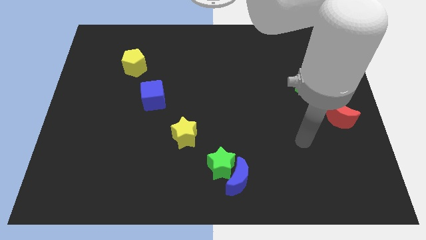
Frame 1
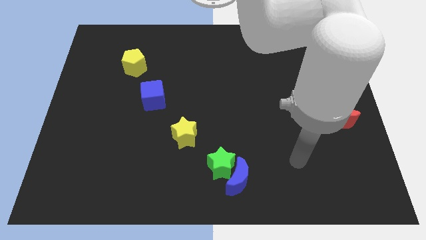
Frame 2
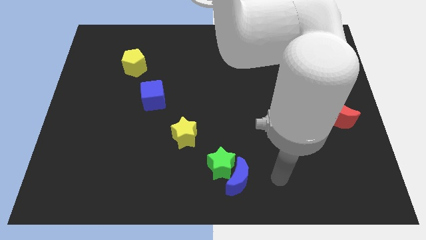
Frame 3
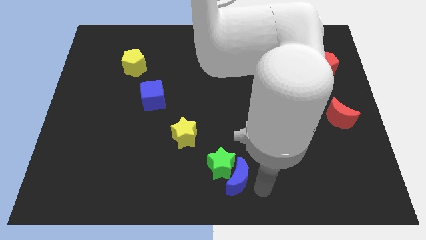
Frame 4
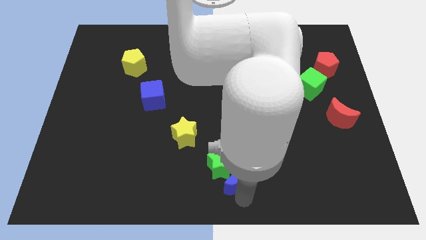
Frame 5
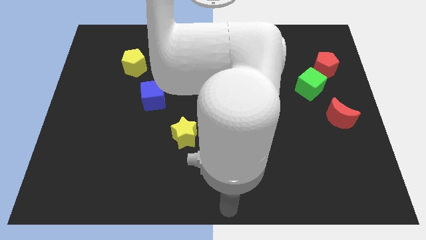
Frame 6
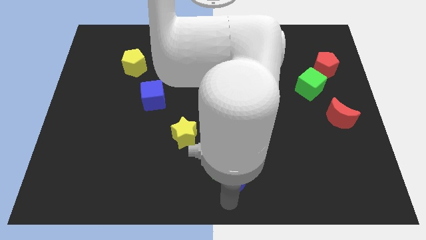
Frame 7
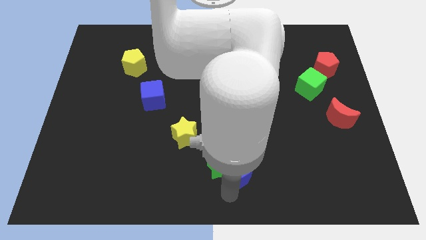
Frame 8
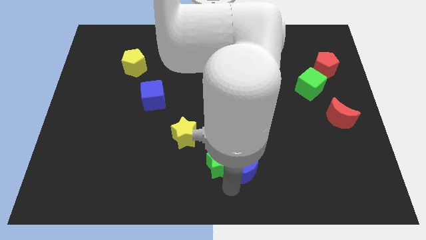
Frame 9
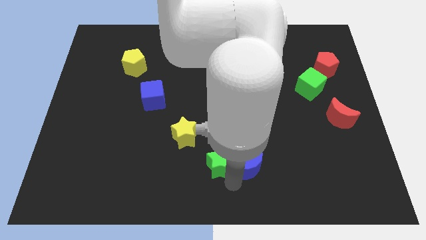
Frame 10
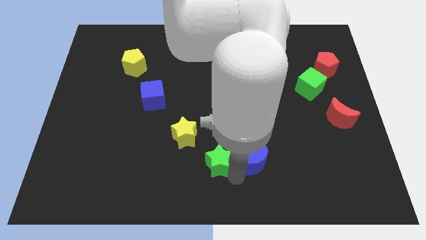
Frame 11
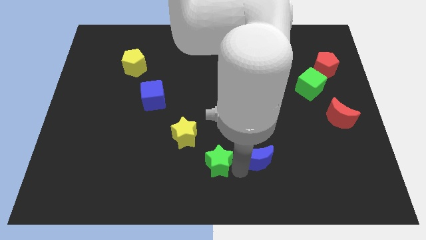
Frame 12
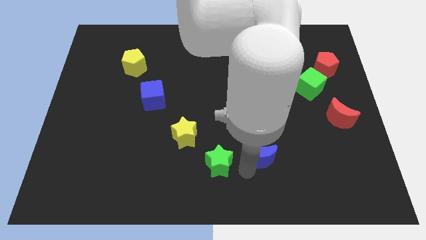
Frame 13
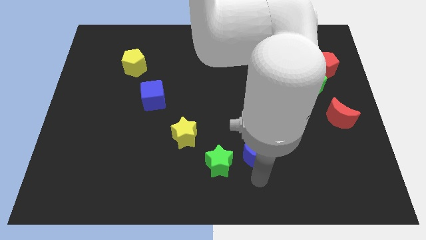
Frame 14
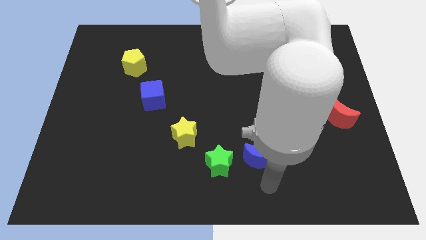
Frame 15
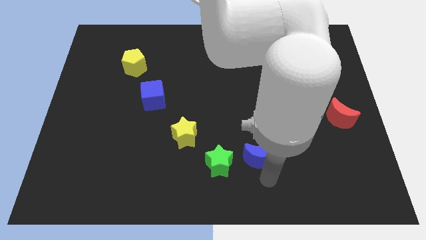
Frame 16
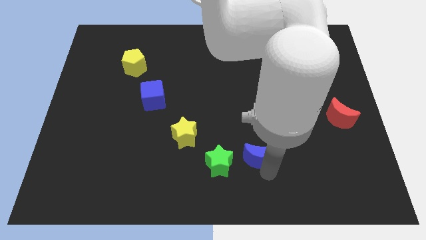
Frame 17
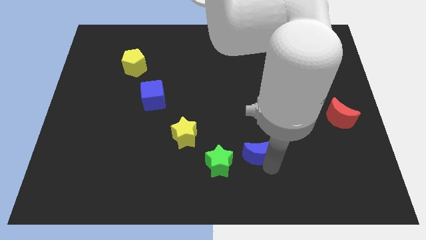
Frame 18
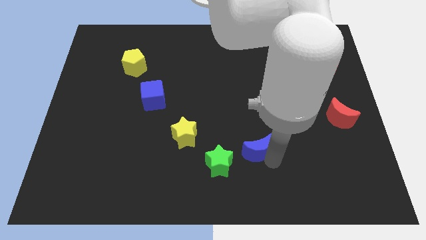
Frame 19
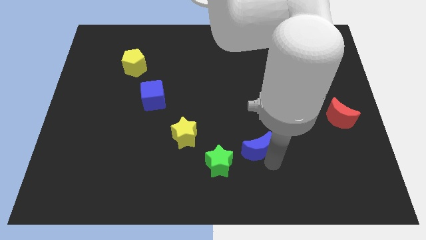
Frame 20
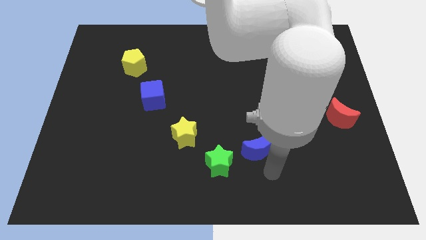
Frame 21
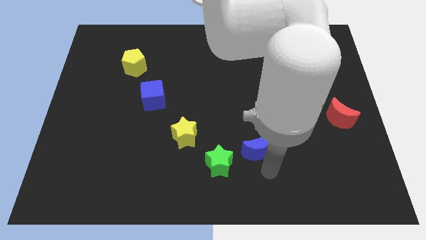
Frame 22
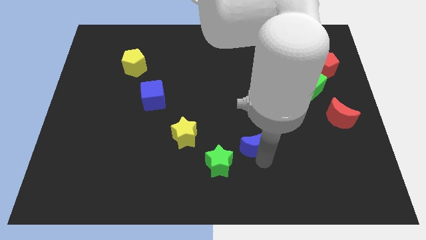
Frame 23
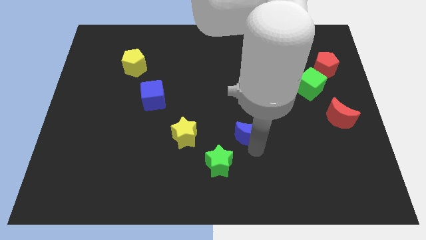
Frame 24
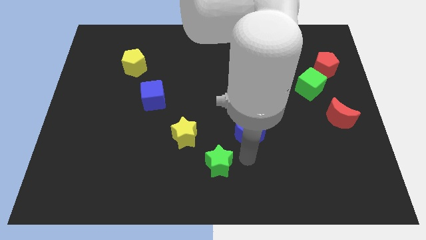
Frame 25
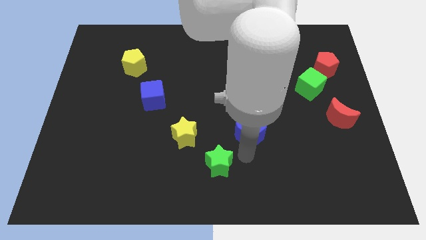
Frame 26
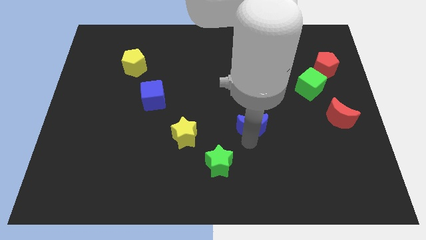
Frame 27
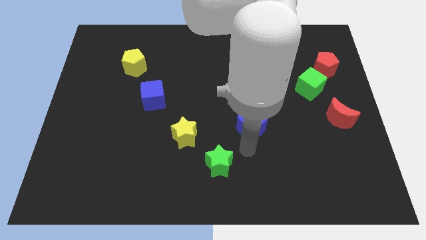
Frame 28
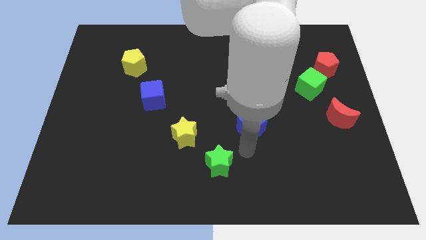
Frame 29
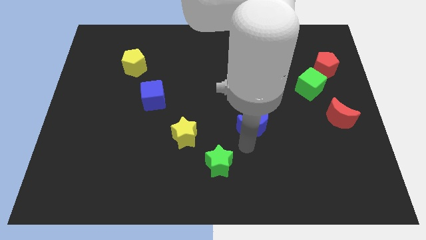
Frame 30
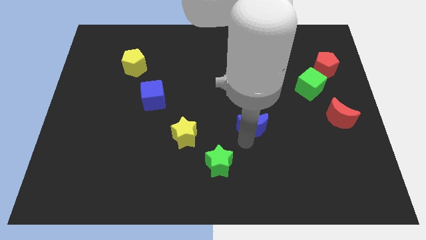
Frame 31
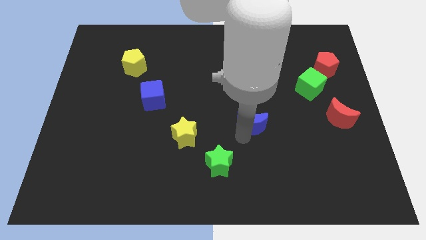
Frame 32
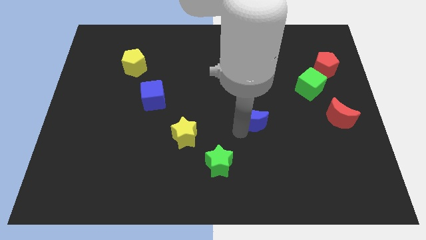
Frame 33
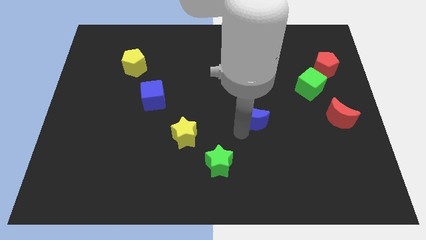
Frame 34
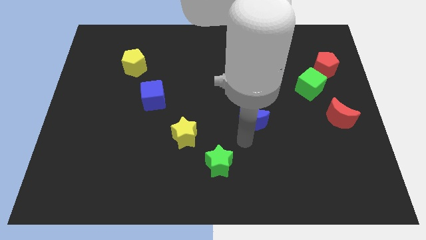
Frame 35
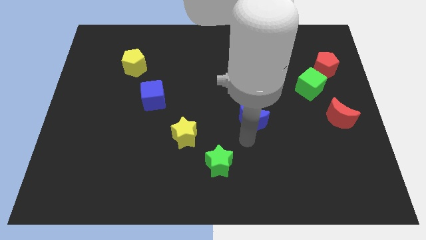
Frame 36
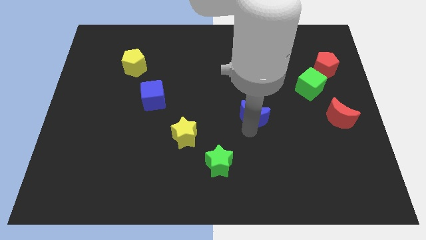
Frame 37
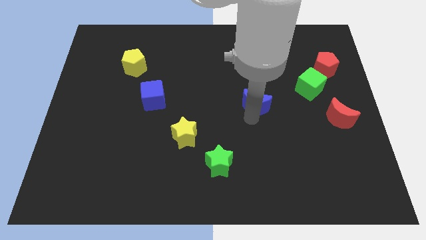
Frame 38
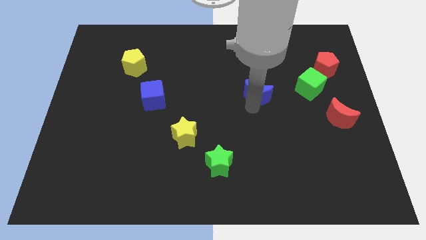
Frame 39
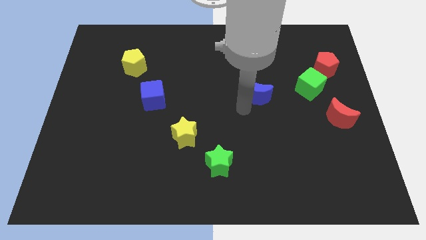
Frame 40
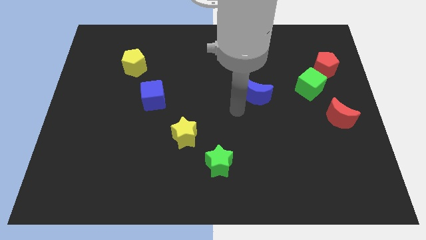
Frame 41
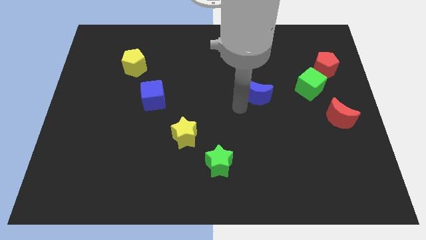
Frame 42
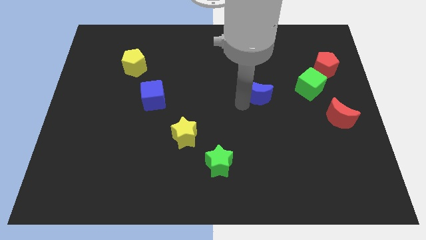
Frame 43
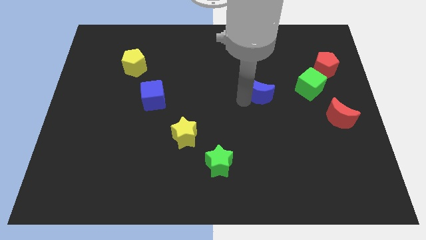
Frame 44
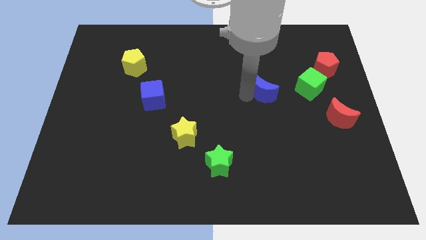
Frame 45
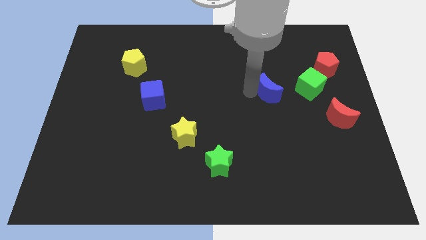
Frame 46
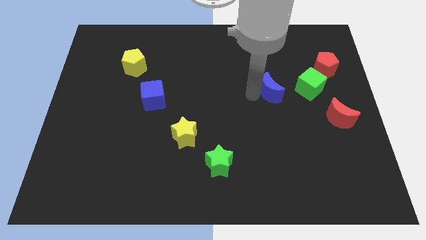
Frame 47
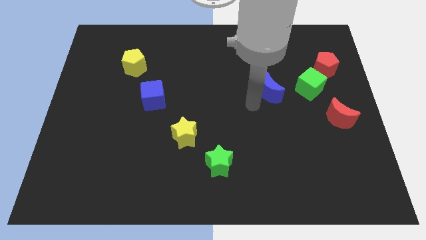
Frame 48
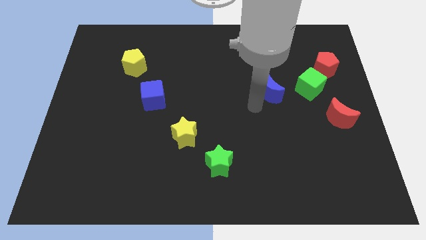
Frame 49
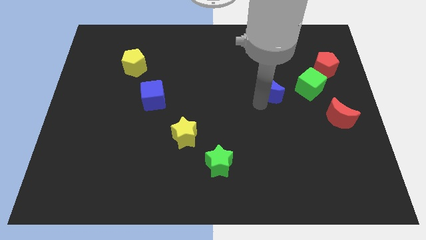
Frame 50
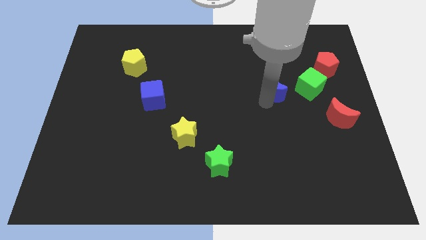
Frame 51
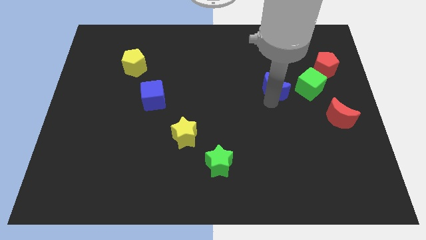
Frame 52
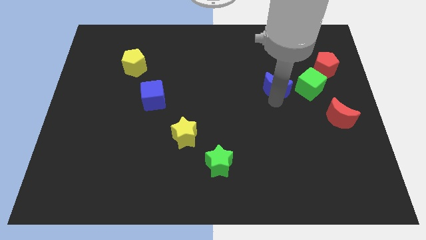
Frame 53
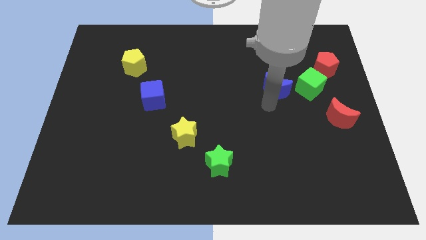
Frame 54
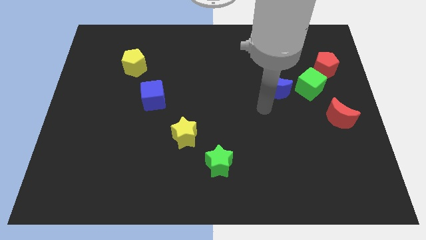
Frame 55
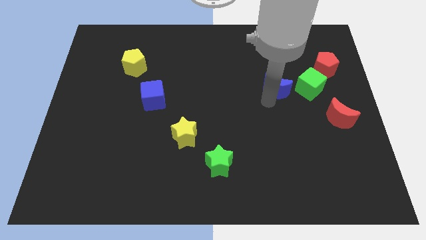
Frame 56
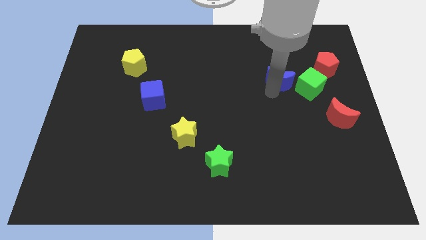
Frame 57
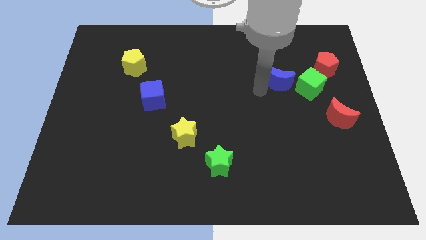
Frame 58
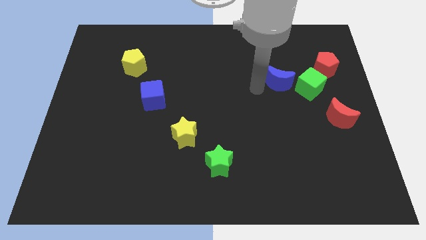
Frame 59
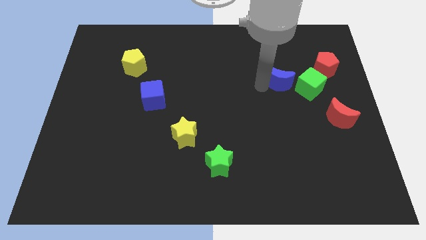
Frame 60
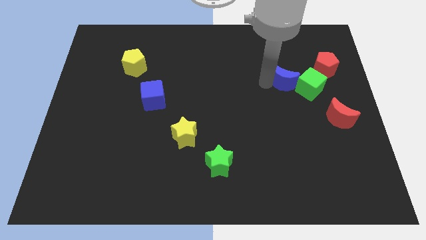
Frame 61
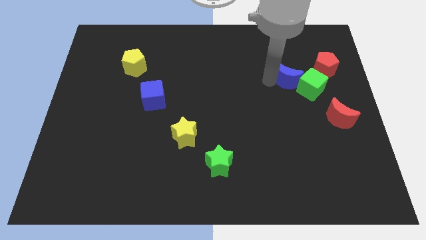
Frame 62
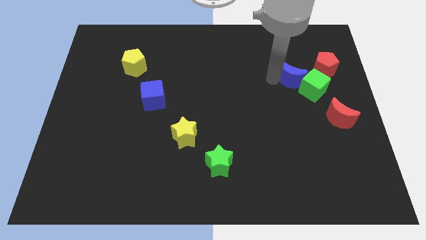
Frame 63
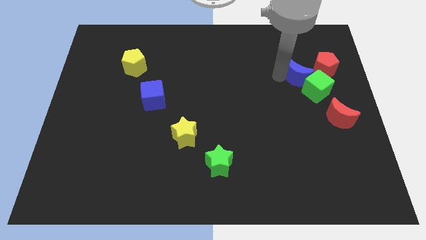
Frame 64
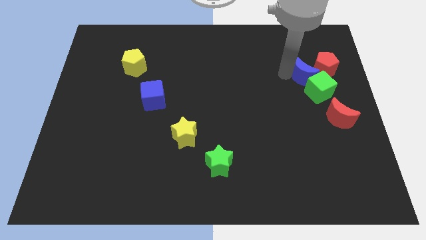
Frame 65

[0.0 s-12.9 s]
put the blue moon towards the red pentagon

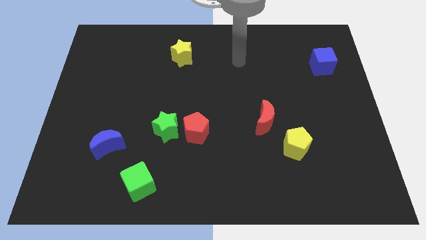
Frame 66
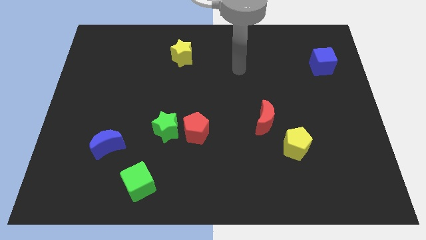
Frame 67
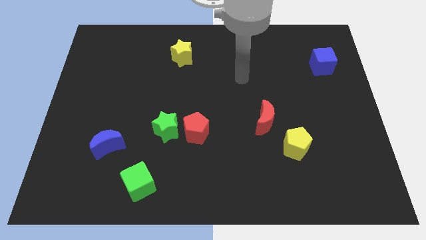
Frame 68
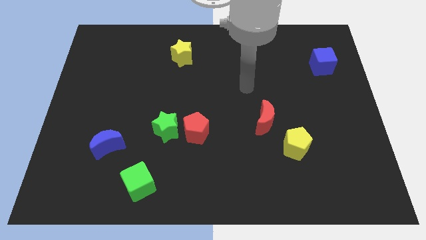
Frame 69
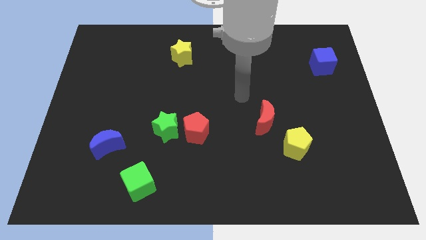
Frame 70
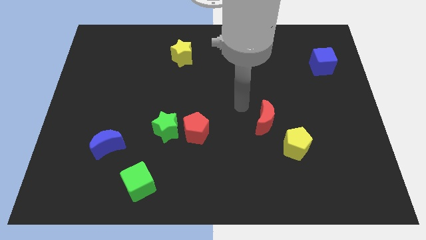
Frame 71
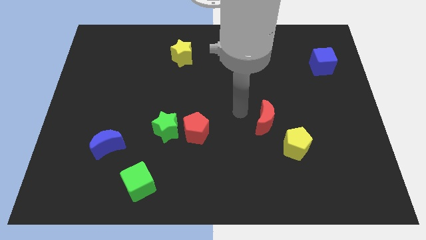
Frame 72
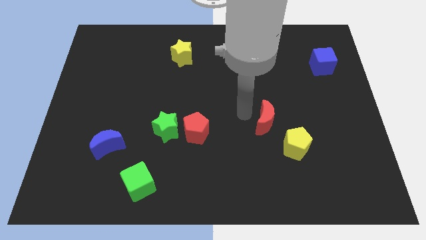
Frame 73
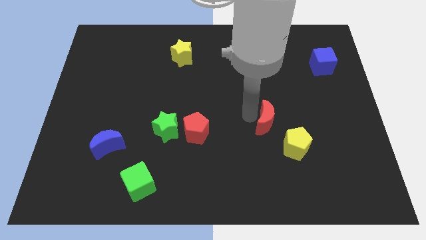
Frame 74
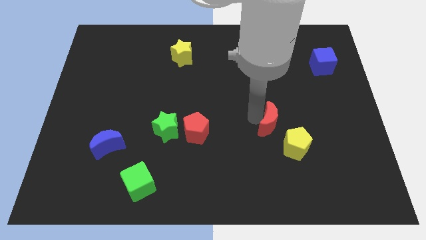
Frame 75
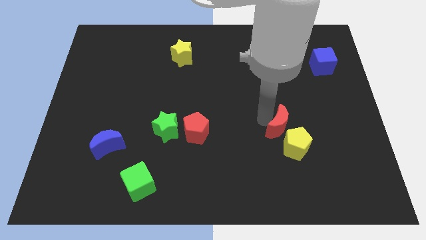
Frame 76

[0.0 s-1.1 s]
slide the red moon to the yellow pentagon
